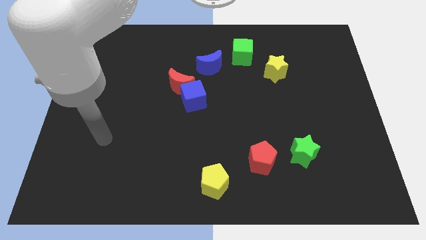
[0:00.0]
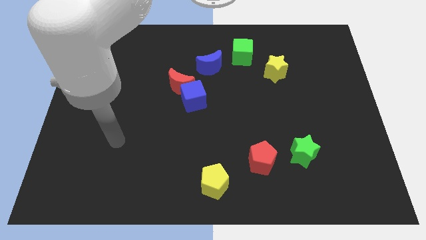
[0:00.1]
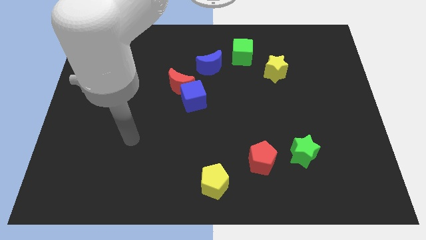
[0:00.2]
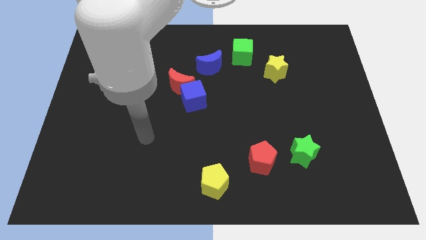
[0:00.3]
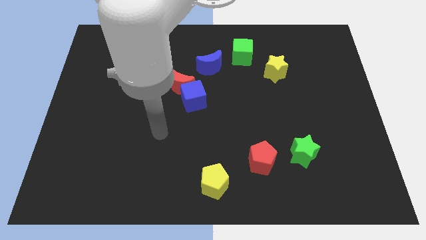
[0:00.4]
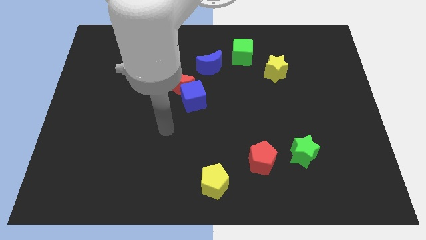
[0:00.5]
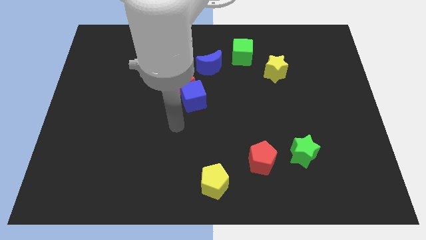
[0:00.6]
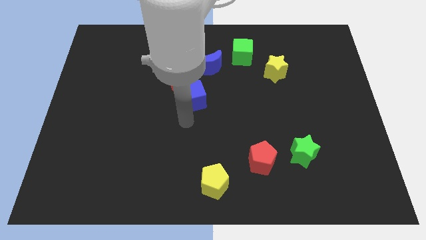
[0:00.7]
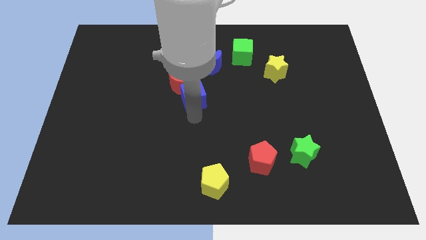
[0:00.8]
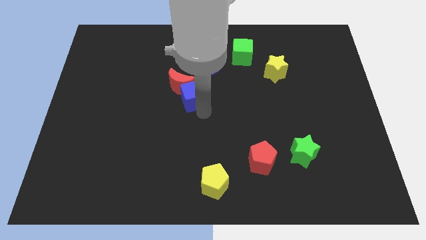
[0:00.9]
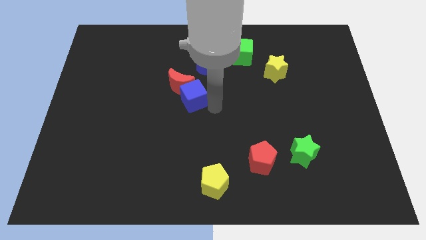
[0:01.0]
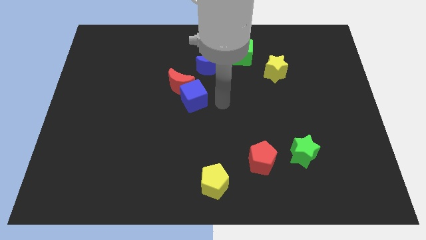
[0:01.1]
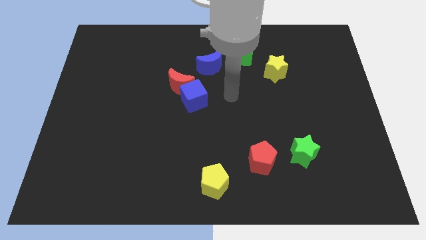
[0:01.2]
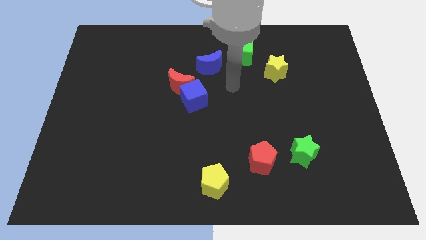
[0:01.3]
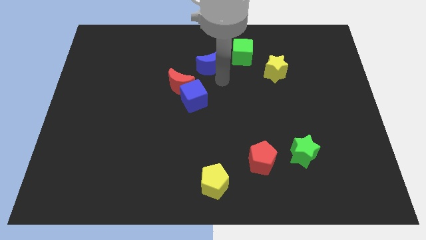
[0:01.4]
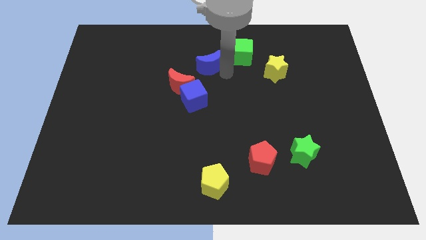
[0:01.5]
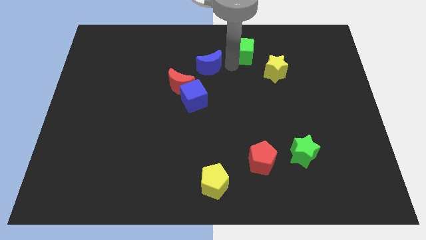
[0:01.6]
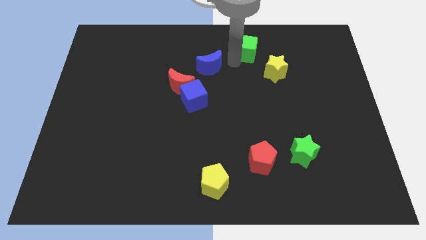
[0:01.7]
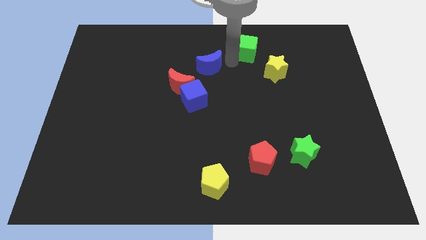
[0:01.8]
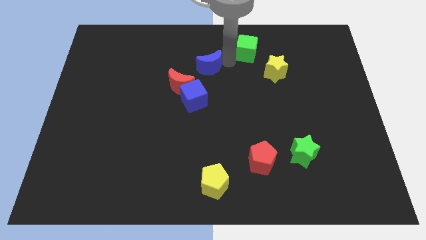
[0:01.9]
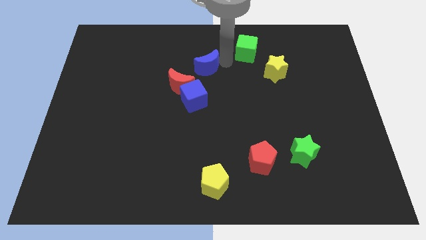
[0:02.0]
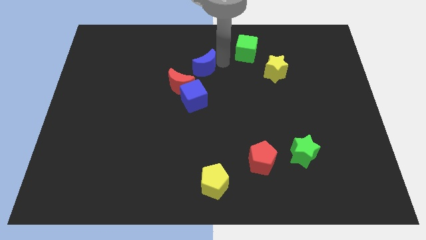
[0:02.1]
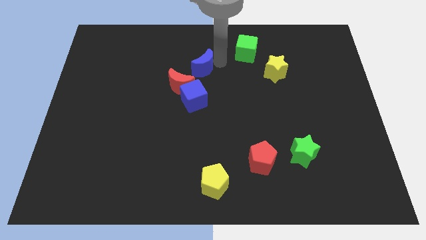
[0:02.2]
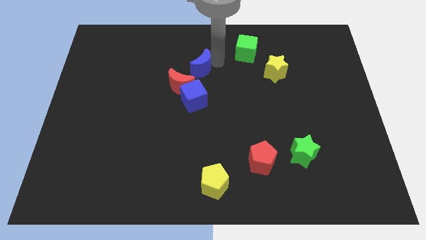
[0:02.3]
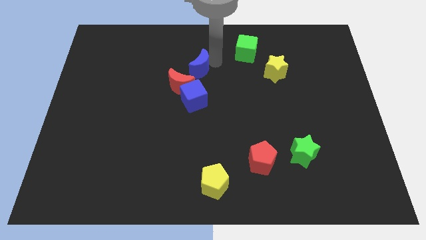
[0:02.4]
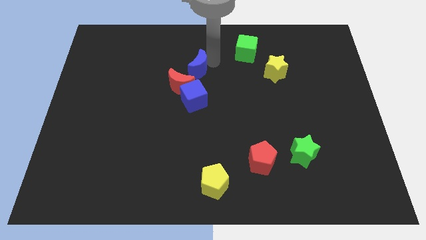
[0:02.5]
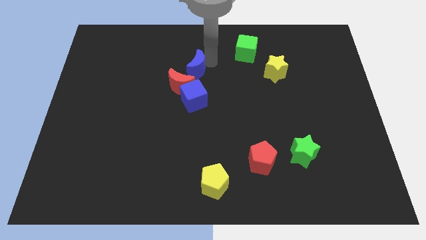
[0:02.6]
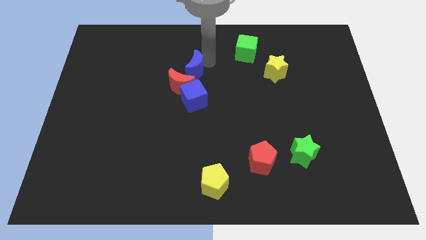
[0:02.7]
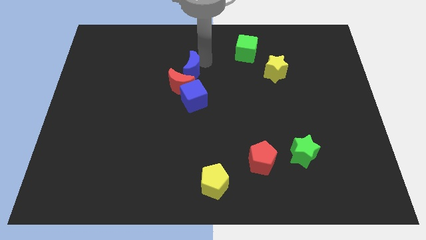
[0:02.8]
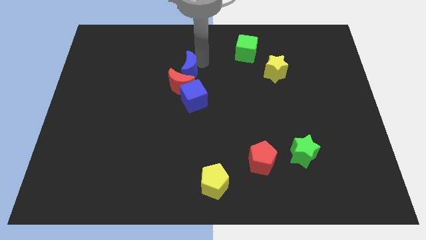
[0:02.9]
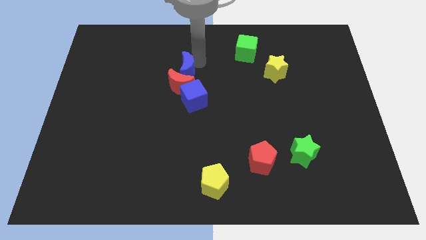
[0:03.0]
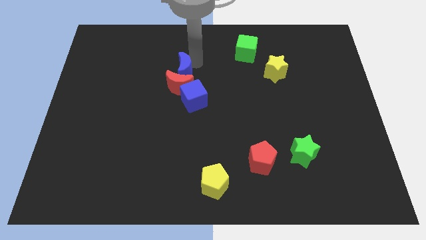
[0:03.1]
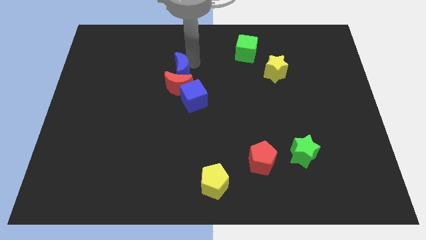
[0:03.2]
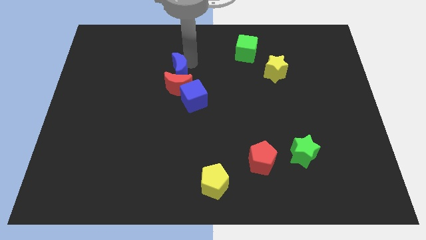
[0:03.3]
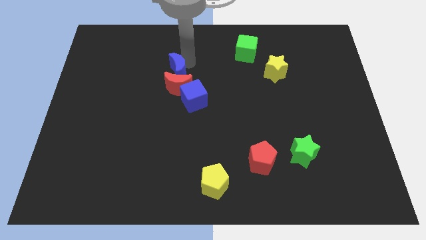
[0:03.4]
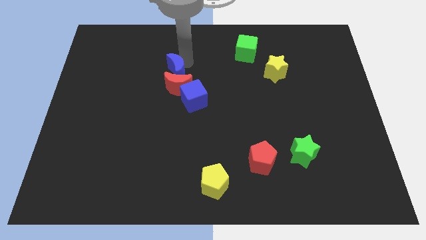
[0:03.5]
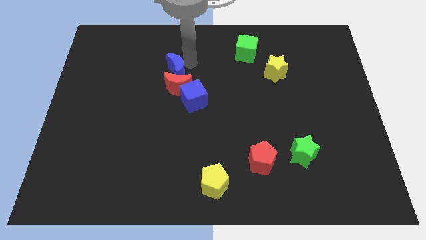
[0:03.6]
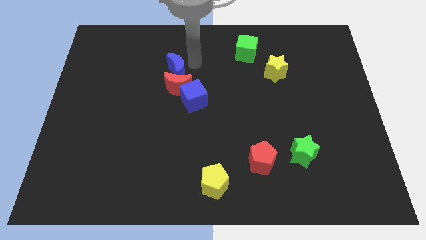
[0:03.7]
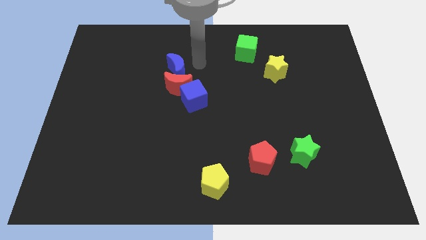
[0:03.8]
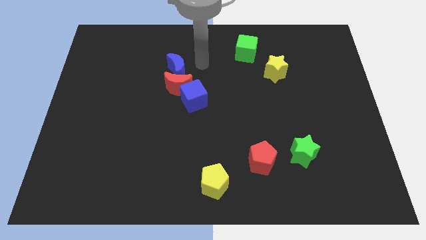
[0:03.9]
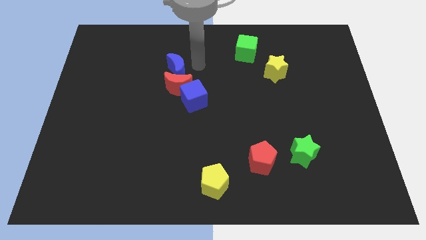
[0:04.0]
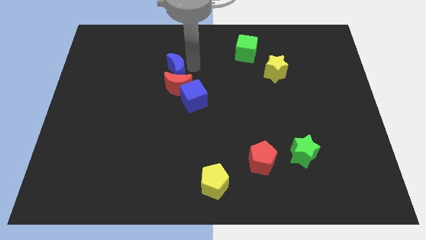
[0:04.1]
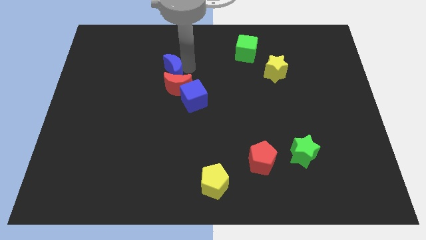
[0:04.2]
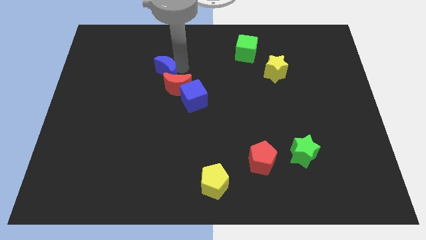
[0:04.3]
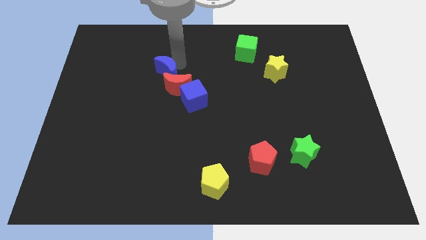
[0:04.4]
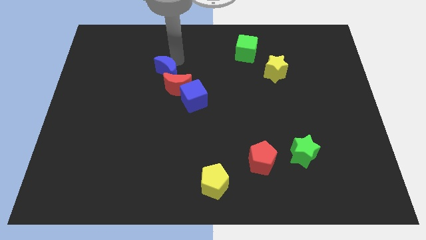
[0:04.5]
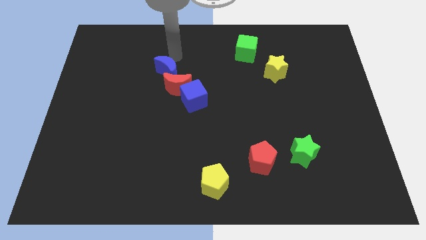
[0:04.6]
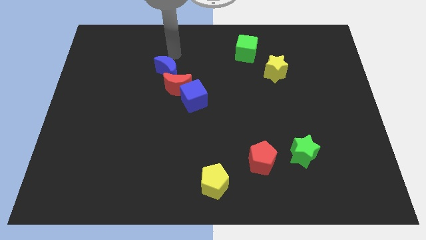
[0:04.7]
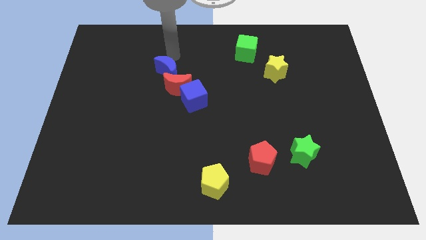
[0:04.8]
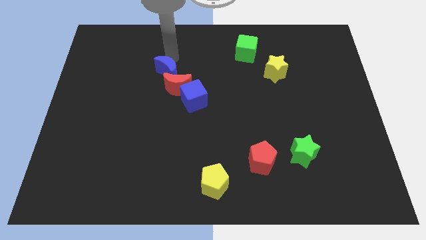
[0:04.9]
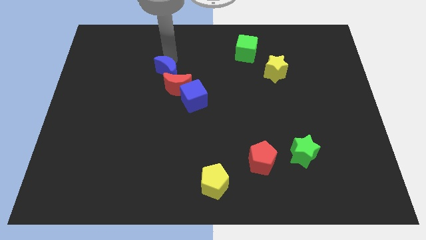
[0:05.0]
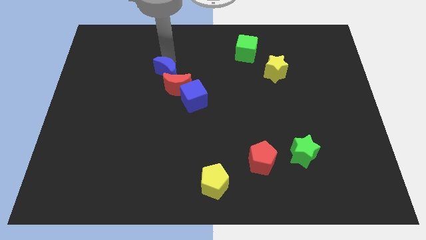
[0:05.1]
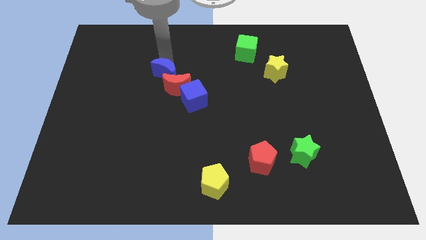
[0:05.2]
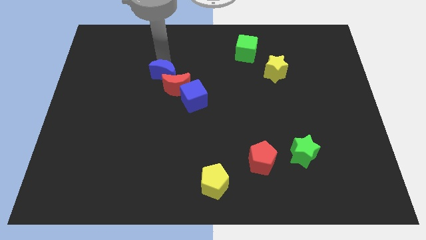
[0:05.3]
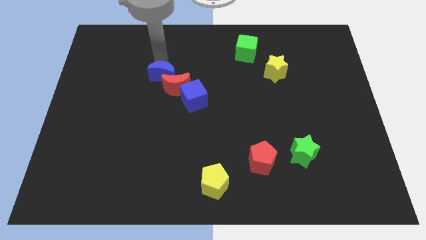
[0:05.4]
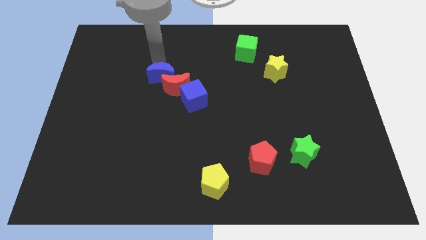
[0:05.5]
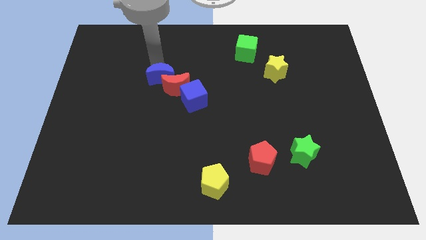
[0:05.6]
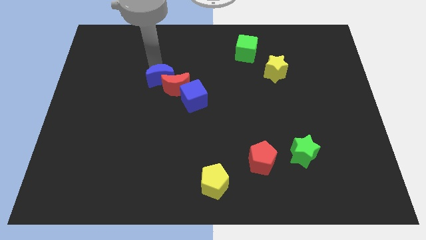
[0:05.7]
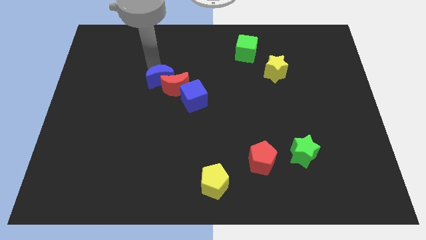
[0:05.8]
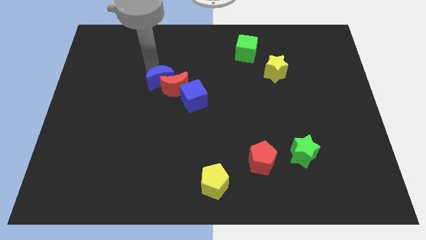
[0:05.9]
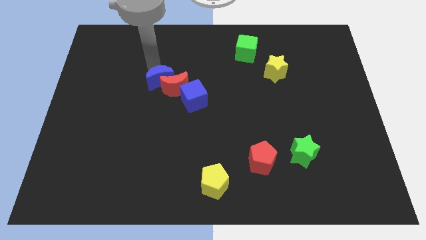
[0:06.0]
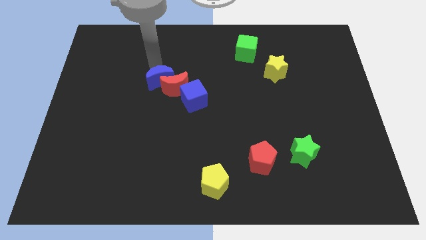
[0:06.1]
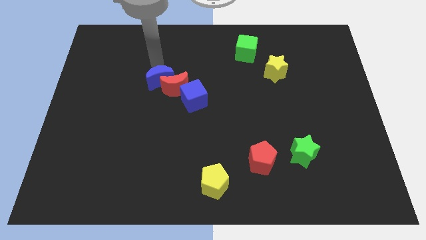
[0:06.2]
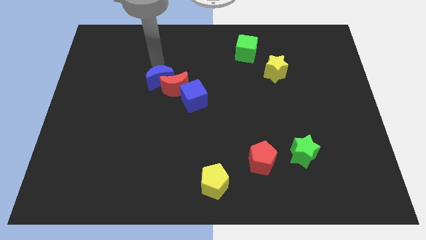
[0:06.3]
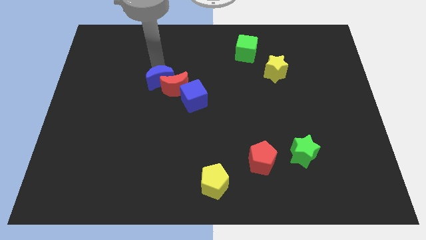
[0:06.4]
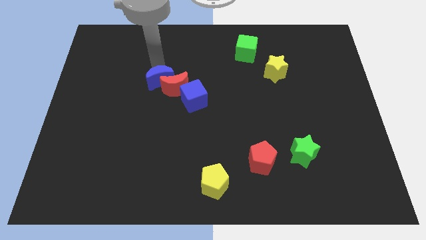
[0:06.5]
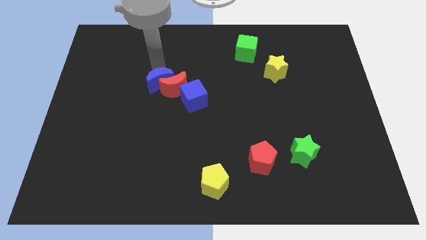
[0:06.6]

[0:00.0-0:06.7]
put the blue moon to the bottom left side of the red moon

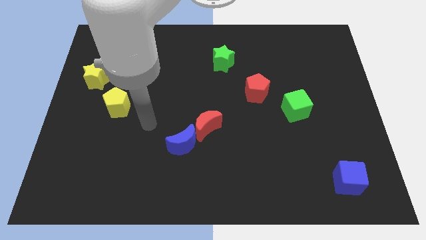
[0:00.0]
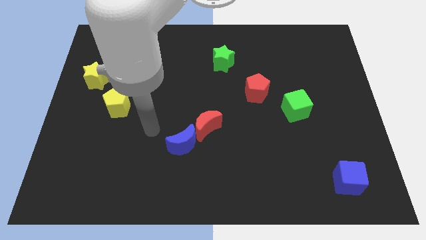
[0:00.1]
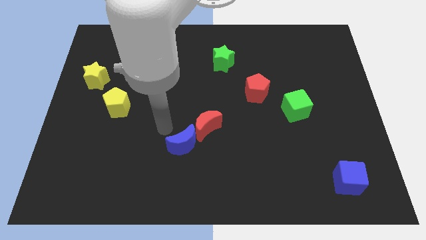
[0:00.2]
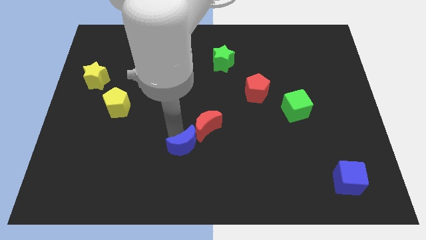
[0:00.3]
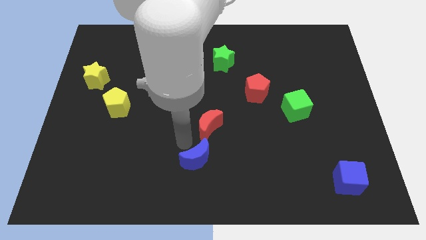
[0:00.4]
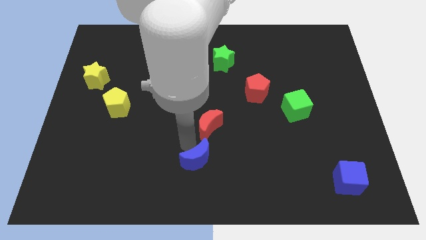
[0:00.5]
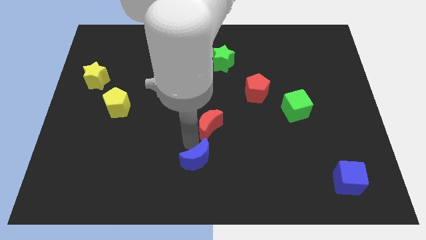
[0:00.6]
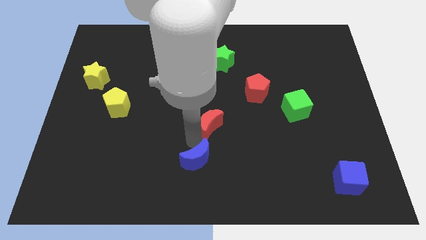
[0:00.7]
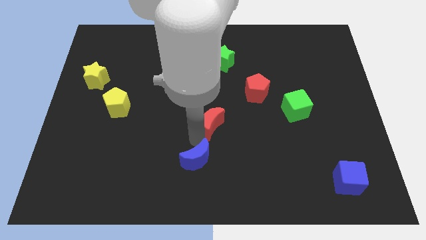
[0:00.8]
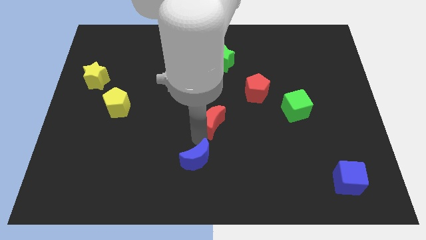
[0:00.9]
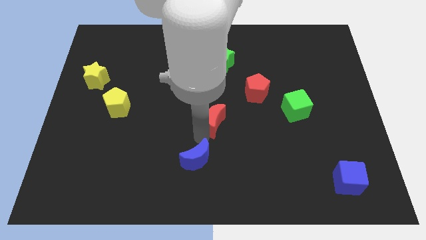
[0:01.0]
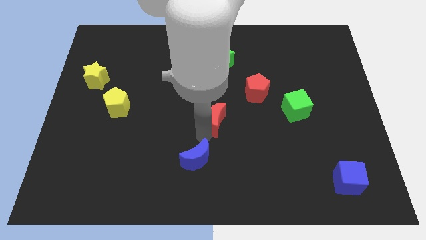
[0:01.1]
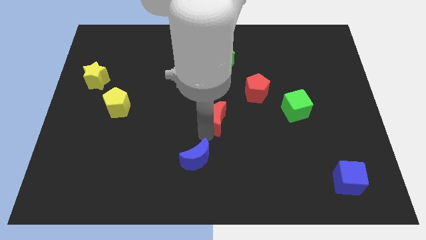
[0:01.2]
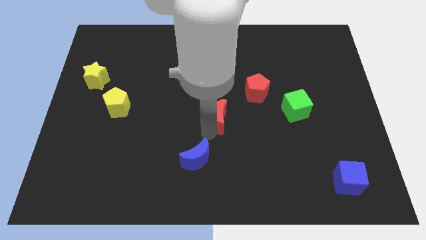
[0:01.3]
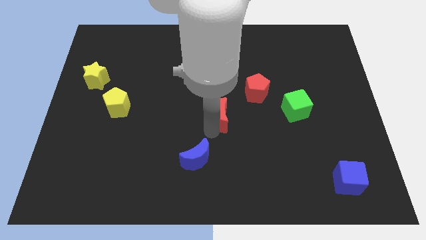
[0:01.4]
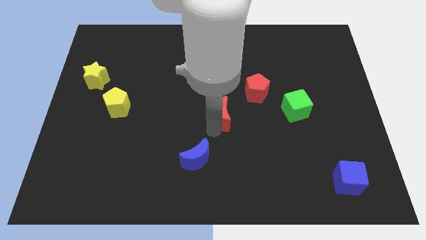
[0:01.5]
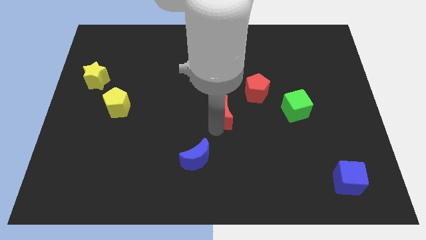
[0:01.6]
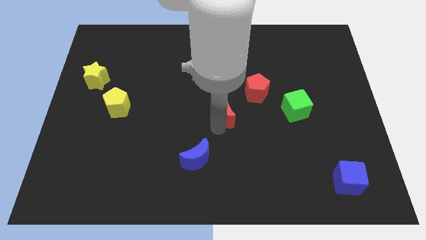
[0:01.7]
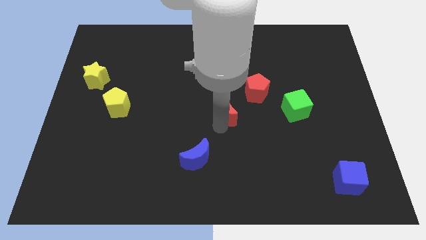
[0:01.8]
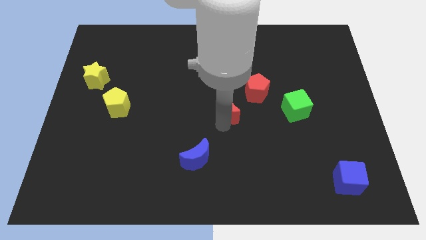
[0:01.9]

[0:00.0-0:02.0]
slide the red moon to the left side of the green cube
